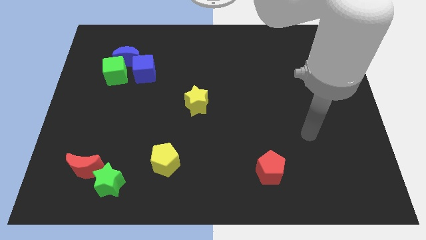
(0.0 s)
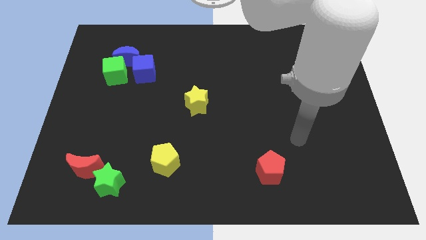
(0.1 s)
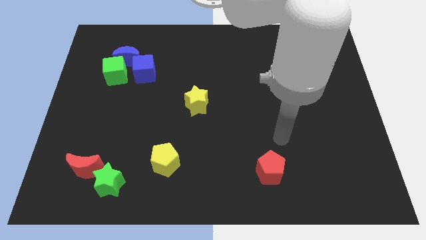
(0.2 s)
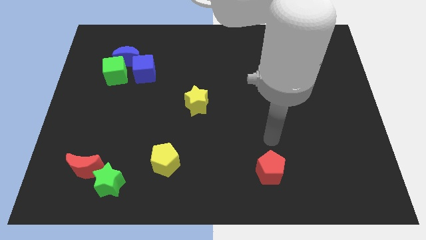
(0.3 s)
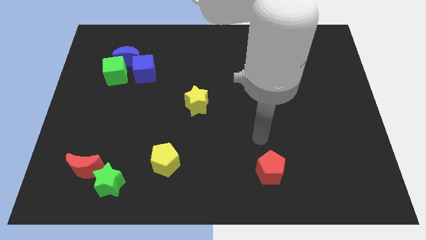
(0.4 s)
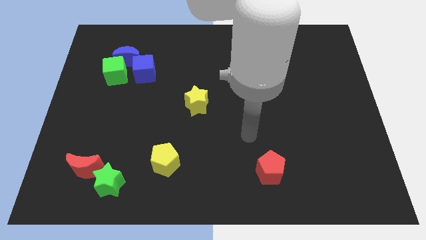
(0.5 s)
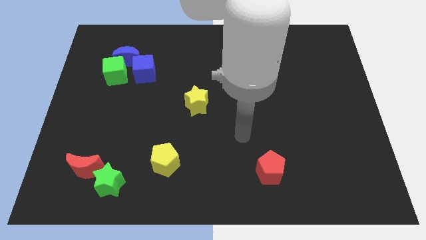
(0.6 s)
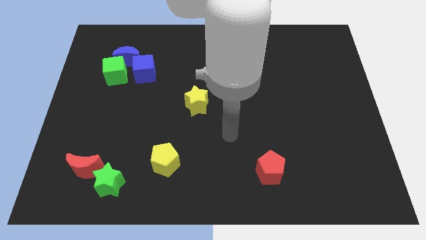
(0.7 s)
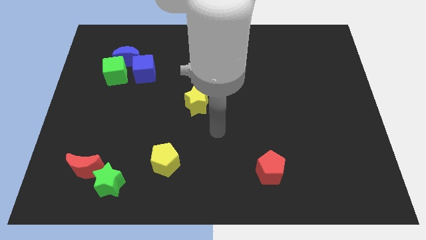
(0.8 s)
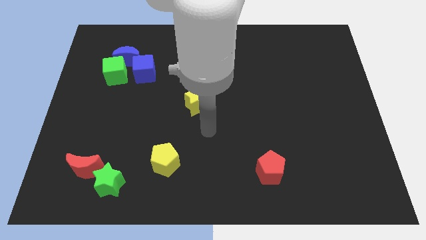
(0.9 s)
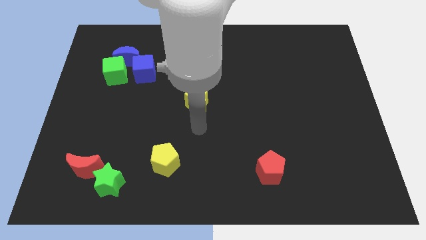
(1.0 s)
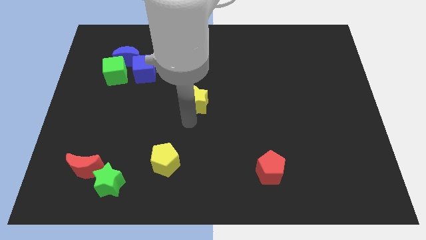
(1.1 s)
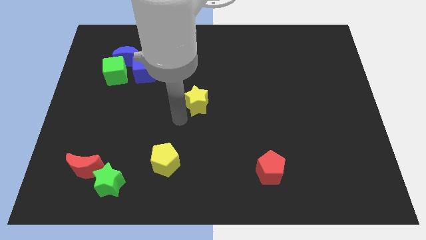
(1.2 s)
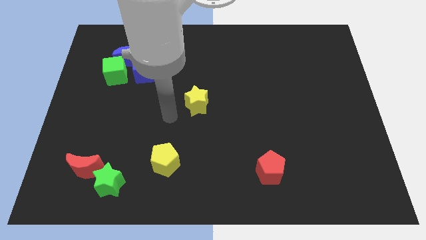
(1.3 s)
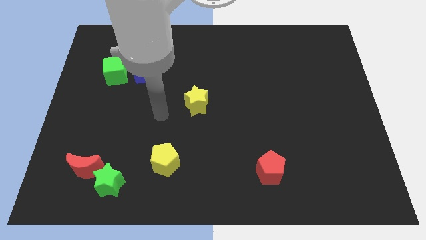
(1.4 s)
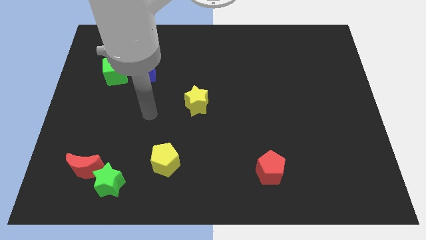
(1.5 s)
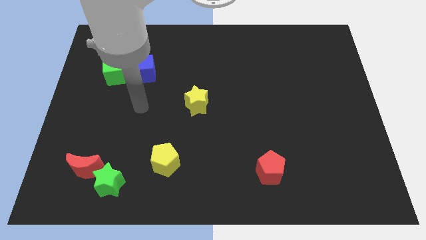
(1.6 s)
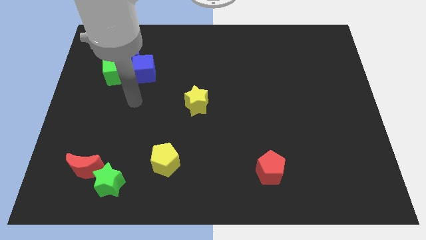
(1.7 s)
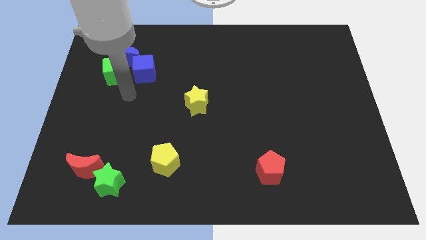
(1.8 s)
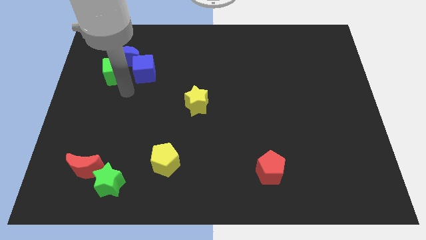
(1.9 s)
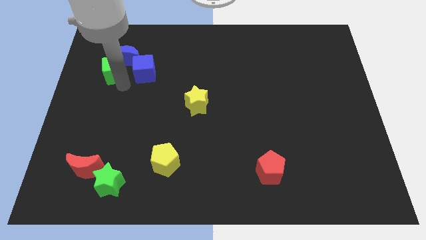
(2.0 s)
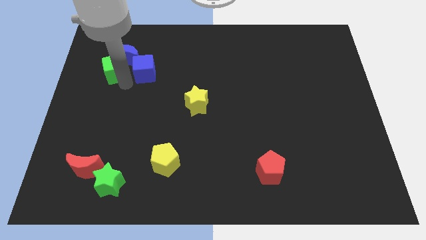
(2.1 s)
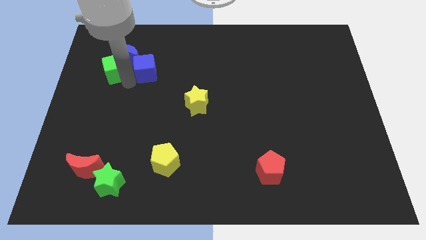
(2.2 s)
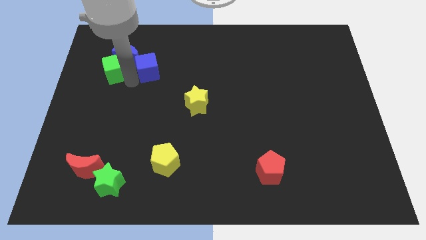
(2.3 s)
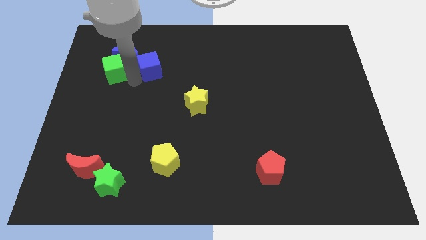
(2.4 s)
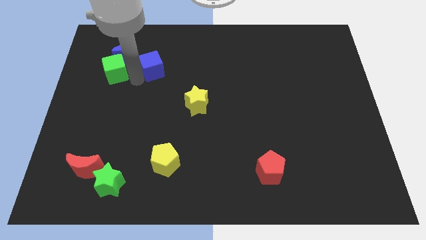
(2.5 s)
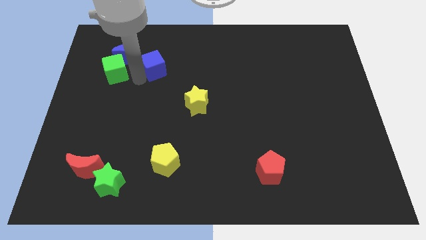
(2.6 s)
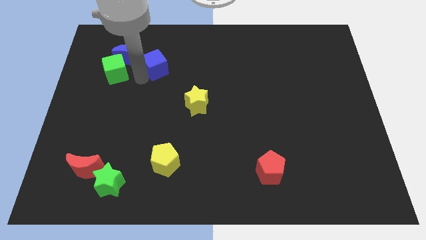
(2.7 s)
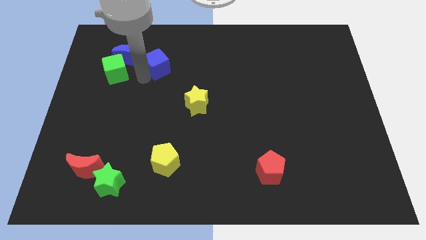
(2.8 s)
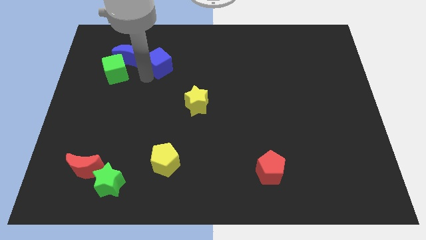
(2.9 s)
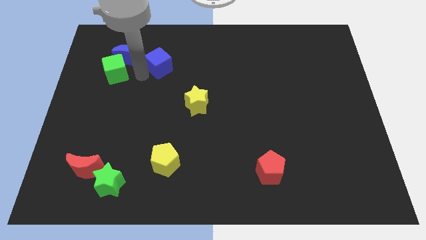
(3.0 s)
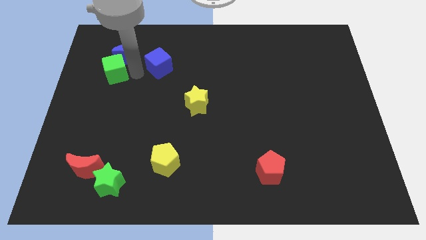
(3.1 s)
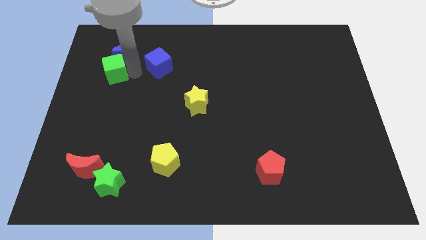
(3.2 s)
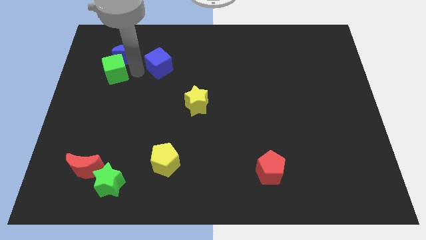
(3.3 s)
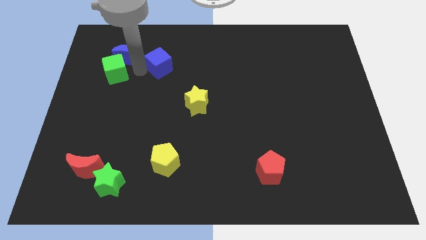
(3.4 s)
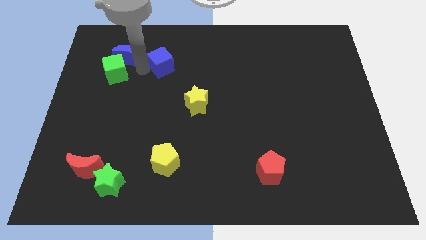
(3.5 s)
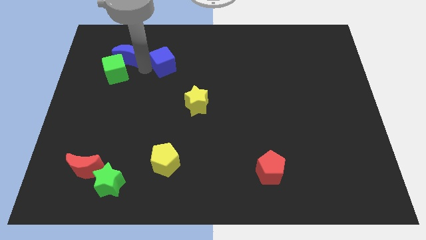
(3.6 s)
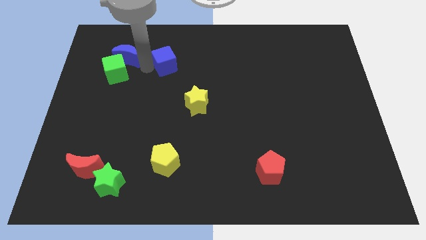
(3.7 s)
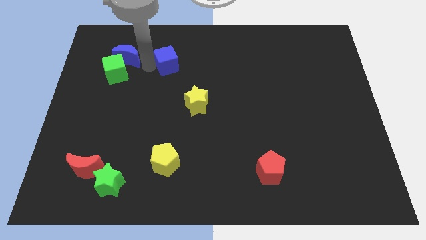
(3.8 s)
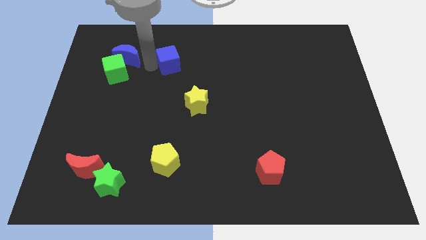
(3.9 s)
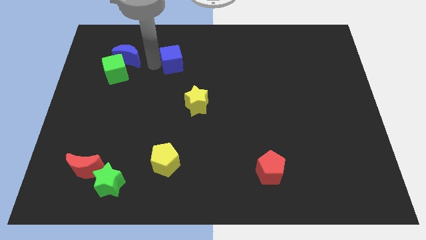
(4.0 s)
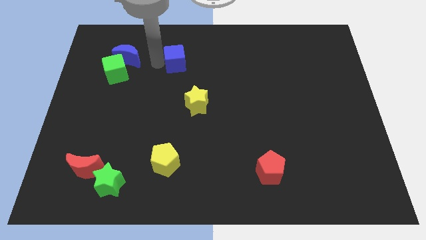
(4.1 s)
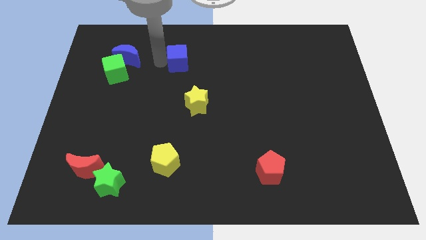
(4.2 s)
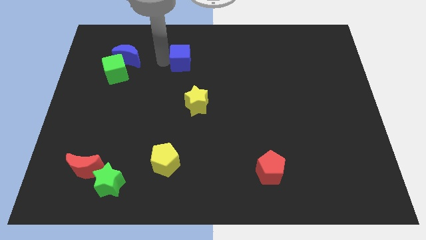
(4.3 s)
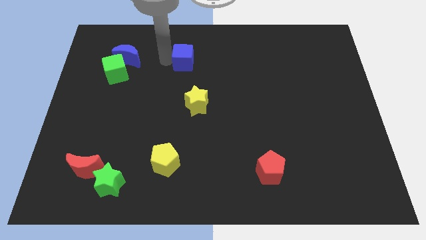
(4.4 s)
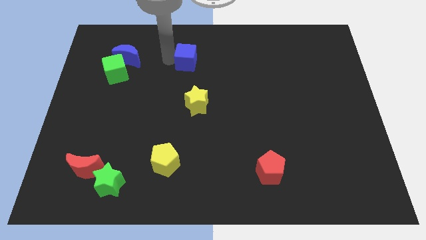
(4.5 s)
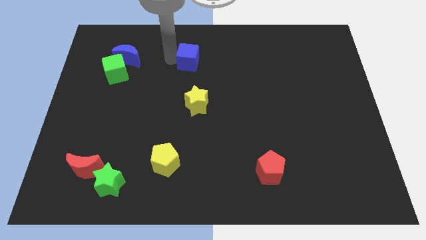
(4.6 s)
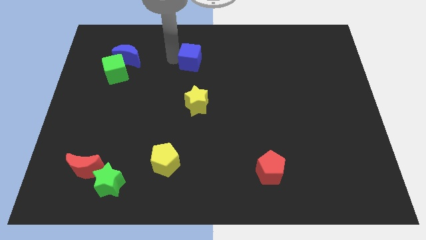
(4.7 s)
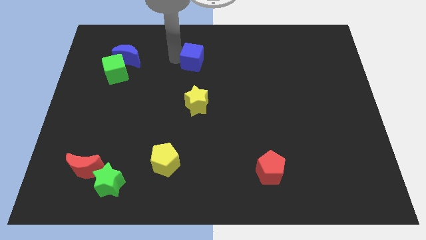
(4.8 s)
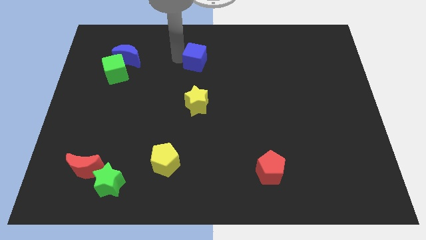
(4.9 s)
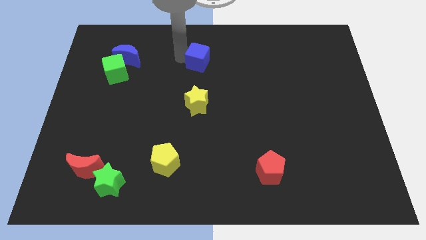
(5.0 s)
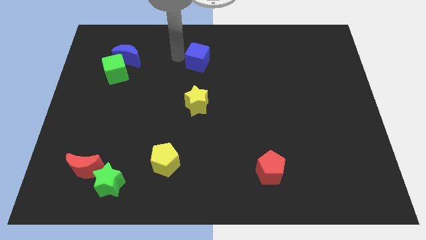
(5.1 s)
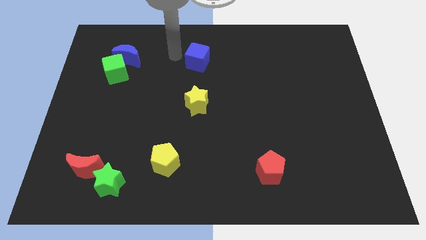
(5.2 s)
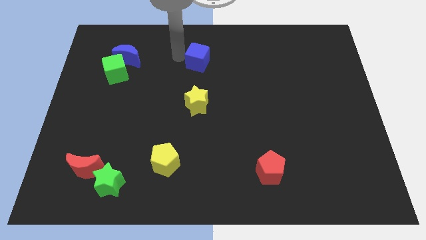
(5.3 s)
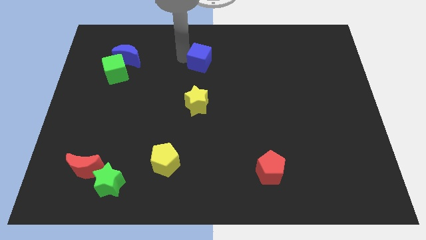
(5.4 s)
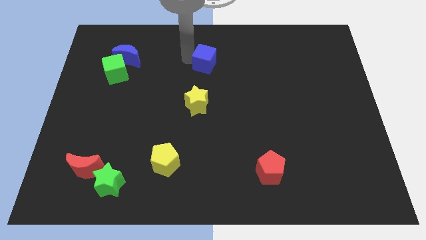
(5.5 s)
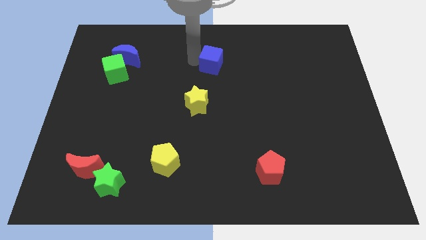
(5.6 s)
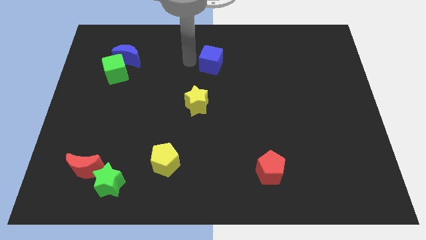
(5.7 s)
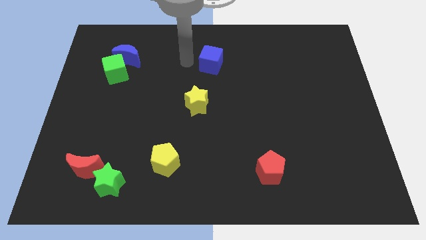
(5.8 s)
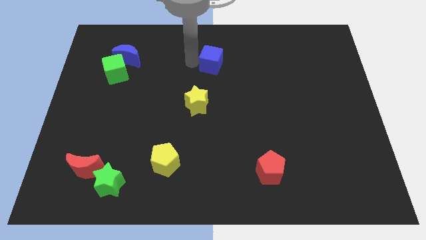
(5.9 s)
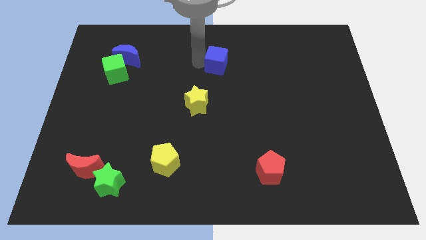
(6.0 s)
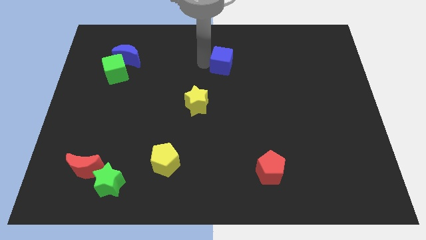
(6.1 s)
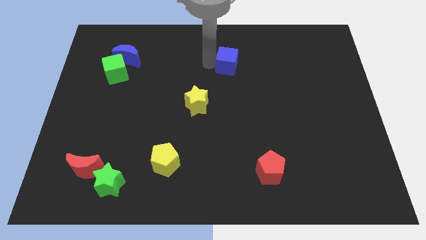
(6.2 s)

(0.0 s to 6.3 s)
slide the blue cube to the right

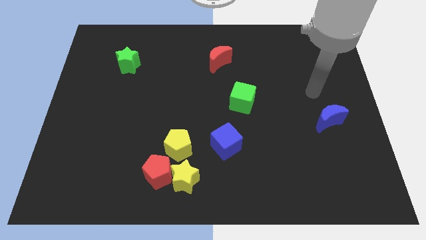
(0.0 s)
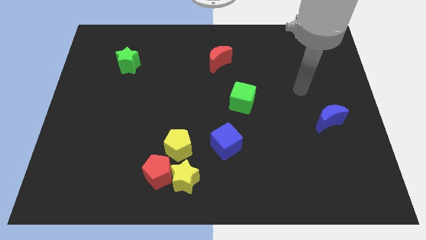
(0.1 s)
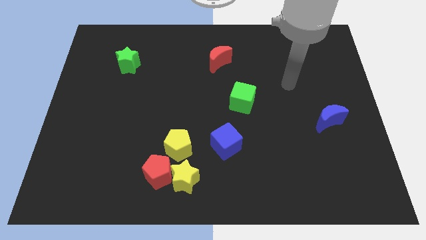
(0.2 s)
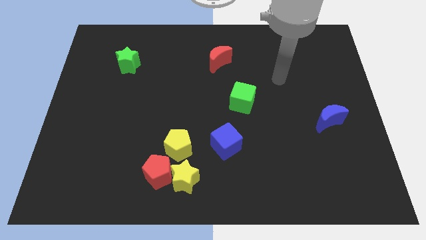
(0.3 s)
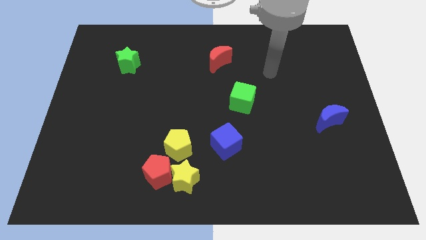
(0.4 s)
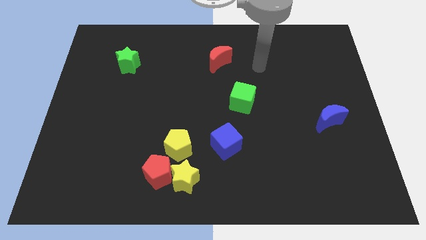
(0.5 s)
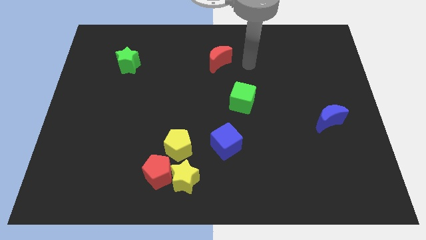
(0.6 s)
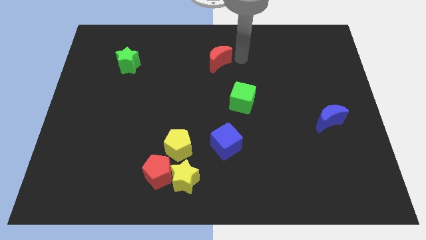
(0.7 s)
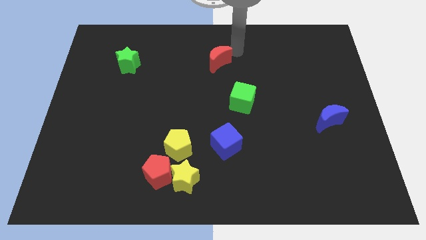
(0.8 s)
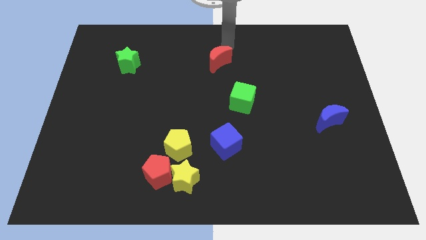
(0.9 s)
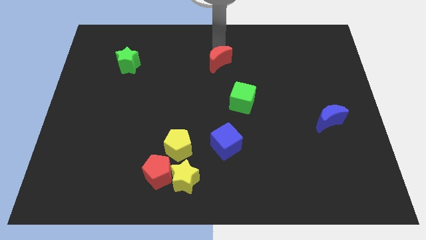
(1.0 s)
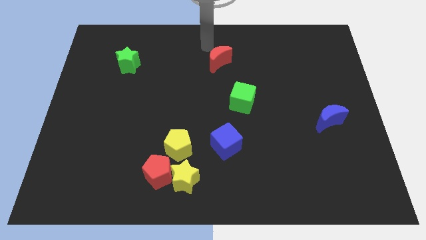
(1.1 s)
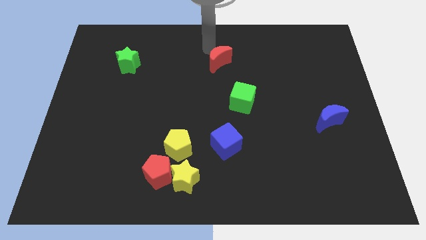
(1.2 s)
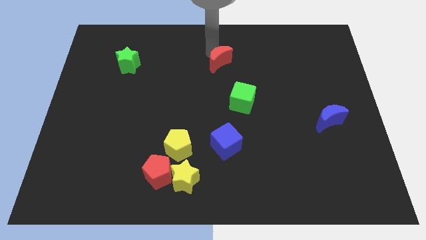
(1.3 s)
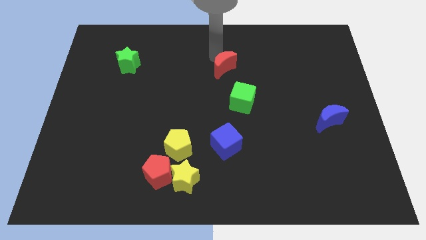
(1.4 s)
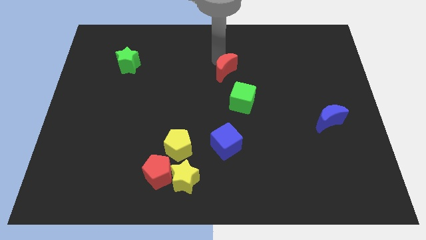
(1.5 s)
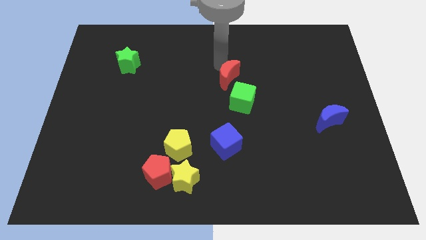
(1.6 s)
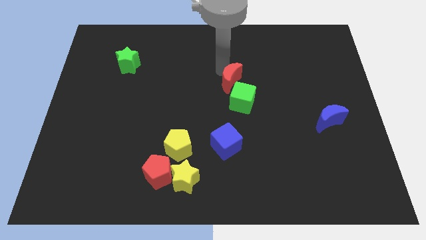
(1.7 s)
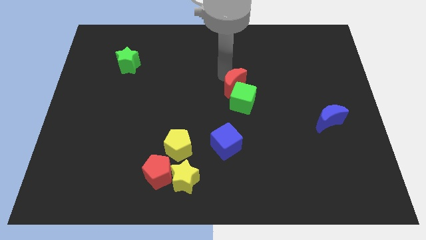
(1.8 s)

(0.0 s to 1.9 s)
push the red moon diagonally down and to the right a little bit
